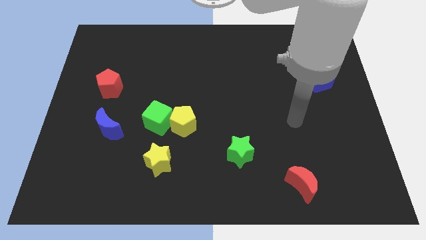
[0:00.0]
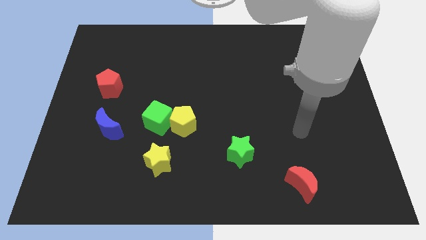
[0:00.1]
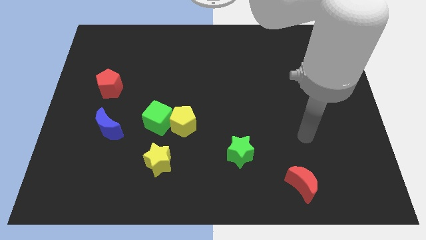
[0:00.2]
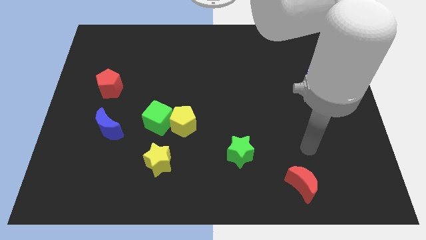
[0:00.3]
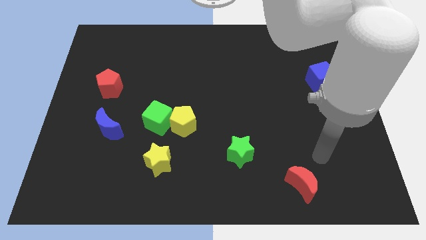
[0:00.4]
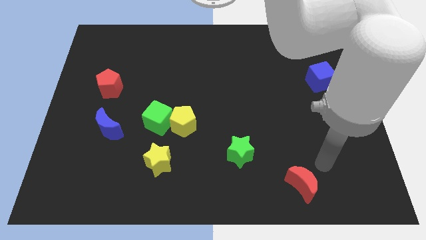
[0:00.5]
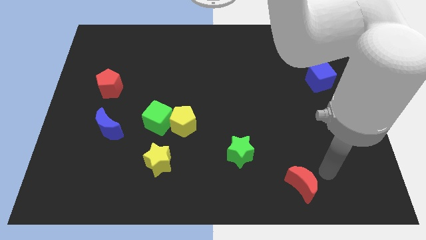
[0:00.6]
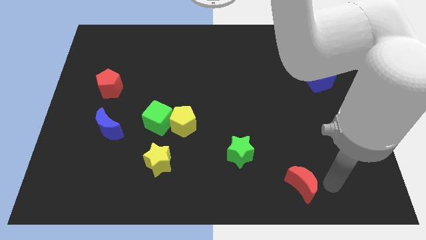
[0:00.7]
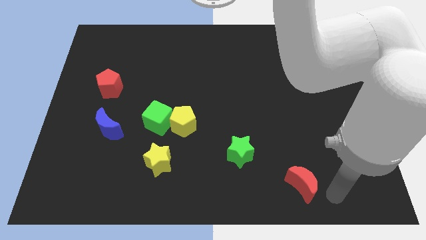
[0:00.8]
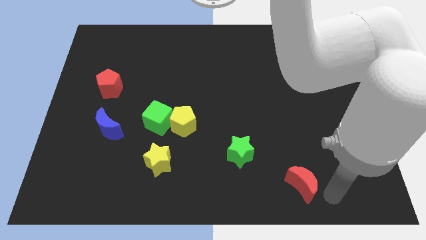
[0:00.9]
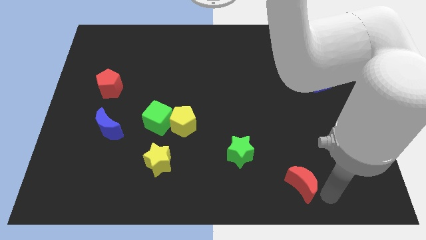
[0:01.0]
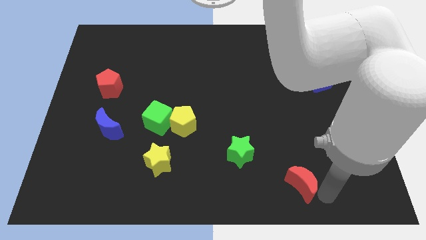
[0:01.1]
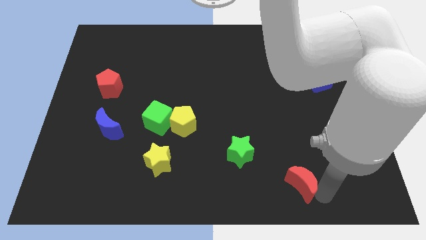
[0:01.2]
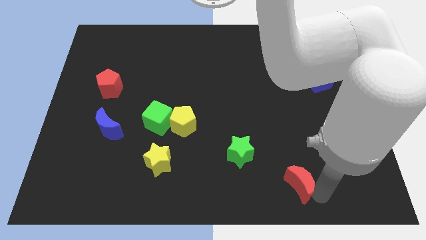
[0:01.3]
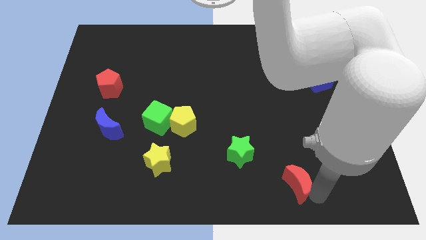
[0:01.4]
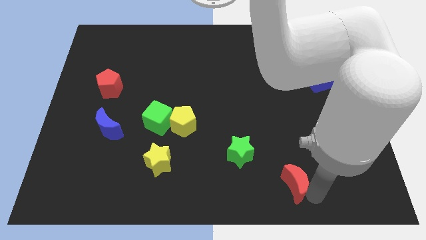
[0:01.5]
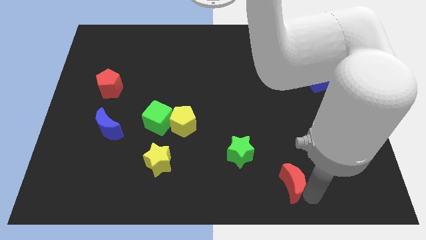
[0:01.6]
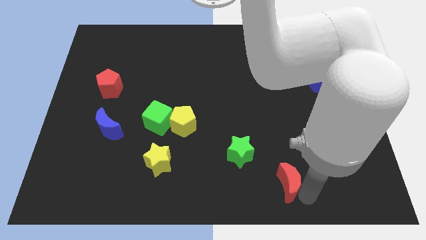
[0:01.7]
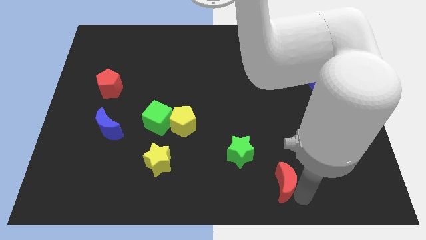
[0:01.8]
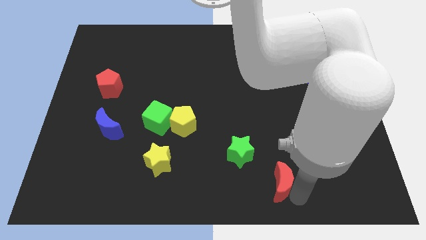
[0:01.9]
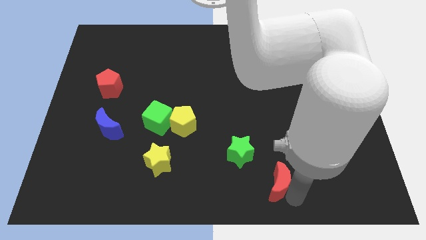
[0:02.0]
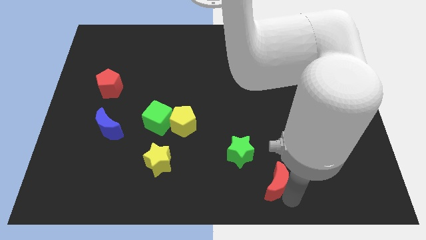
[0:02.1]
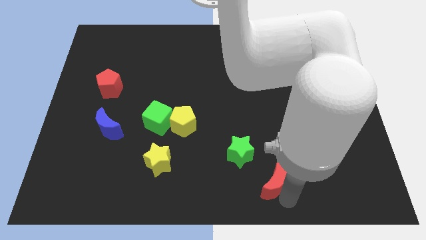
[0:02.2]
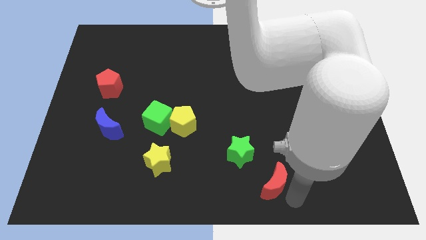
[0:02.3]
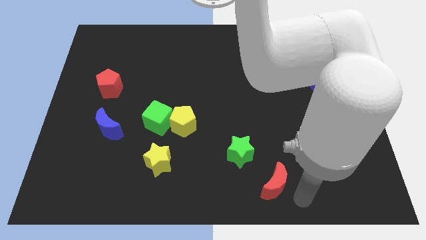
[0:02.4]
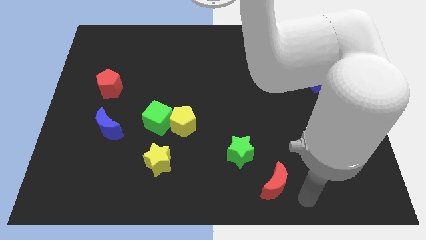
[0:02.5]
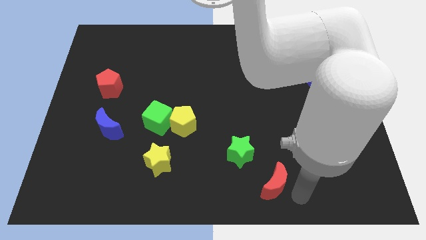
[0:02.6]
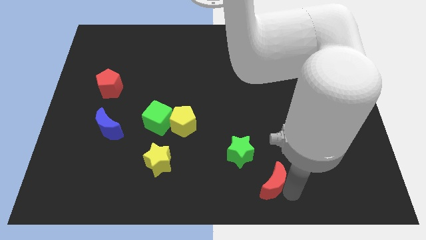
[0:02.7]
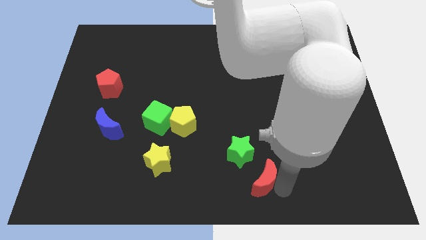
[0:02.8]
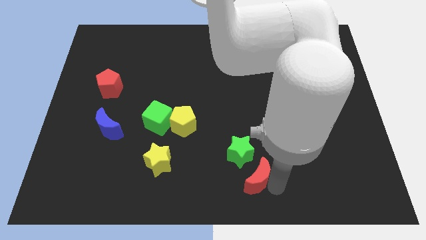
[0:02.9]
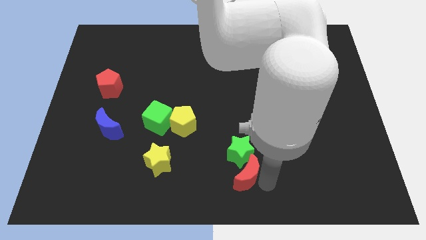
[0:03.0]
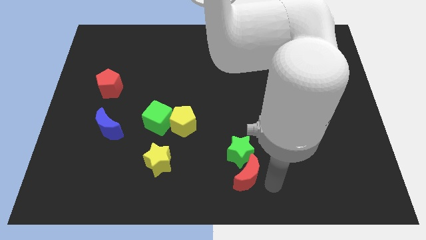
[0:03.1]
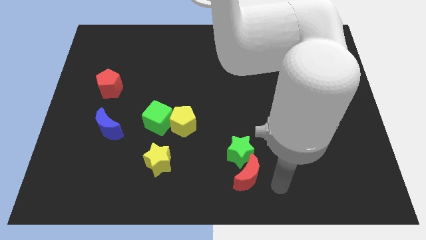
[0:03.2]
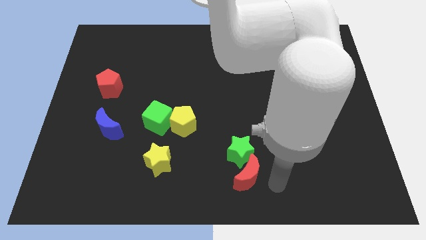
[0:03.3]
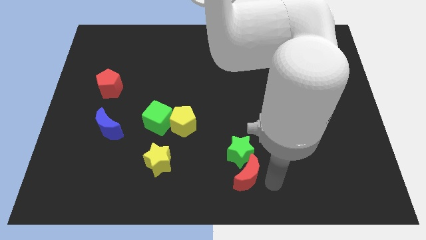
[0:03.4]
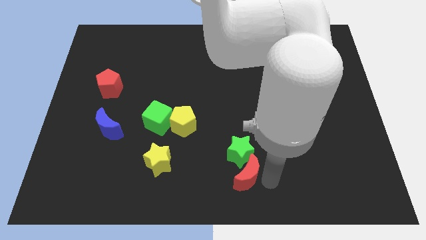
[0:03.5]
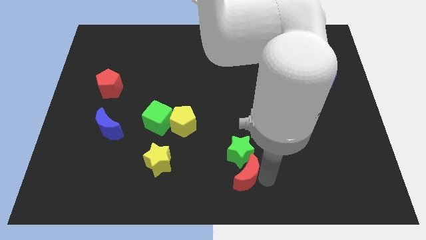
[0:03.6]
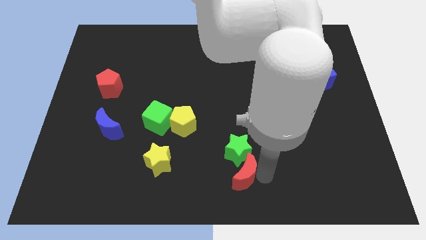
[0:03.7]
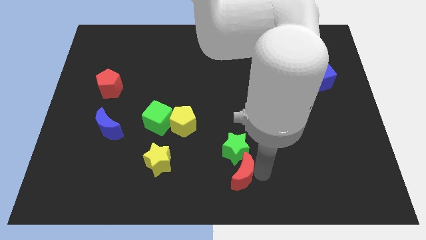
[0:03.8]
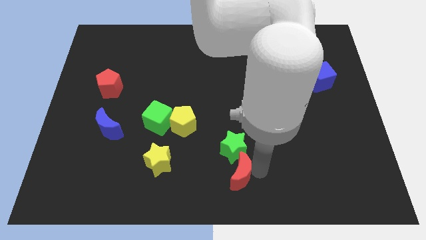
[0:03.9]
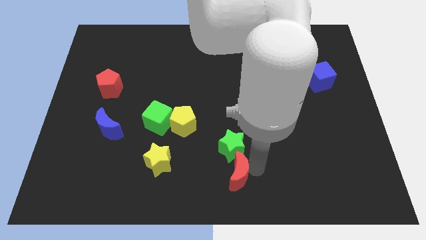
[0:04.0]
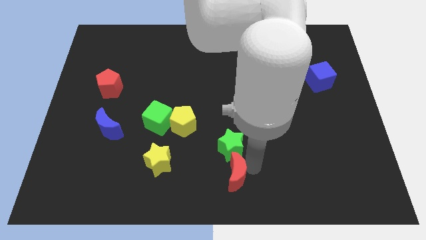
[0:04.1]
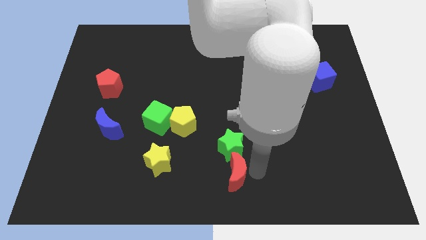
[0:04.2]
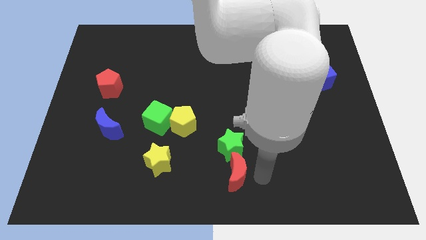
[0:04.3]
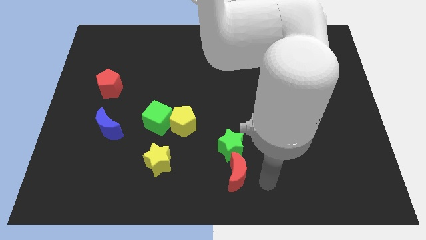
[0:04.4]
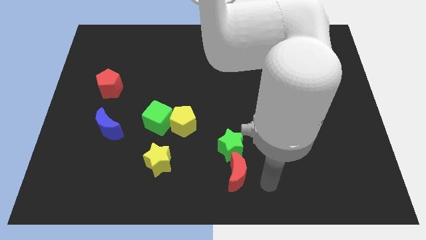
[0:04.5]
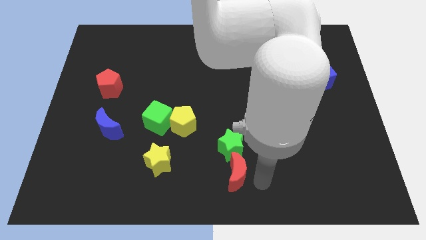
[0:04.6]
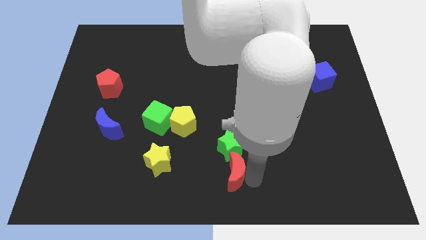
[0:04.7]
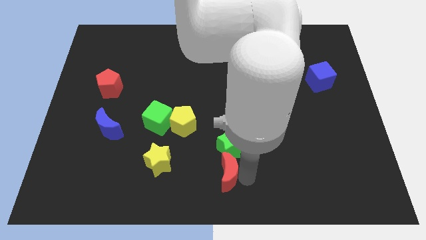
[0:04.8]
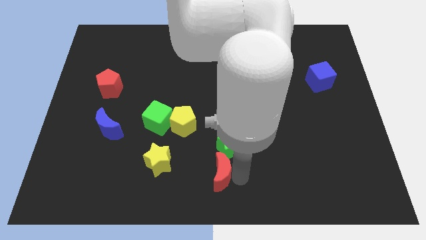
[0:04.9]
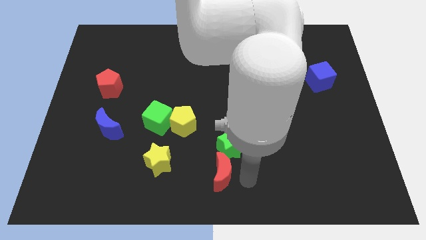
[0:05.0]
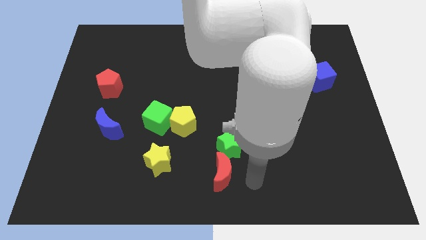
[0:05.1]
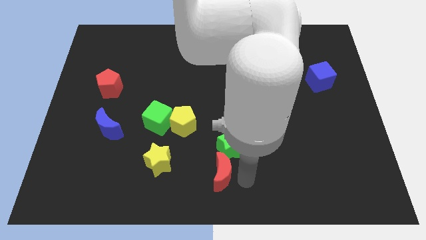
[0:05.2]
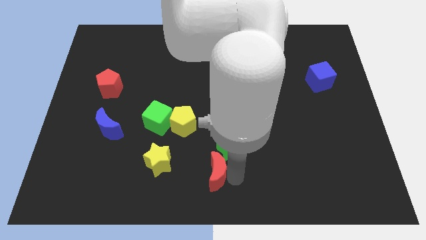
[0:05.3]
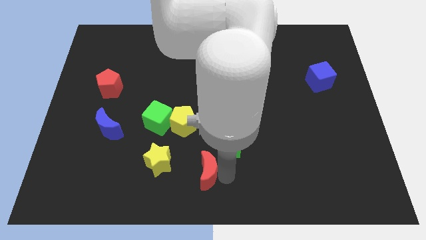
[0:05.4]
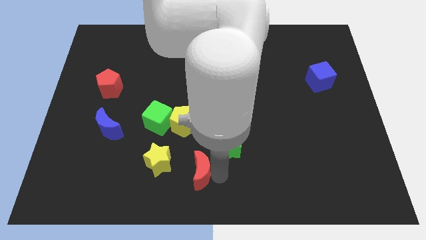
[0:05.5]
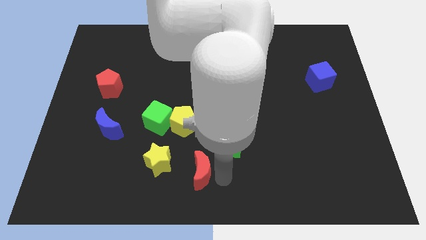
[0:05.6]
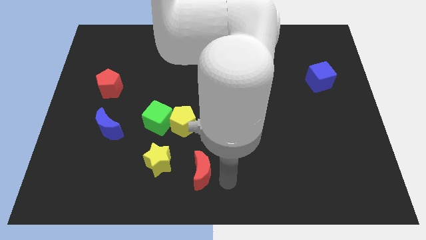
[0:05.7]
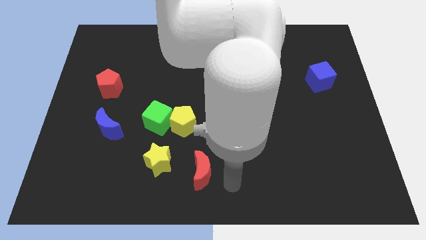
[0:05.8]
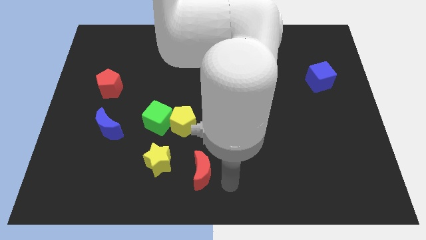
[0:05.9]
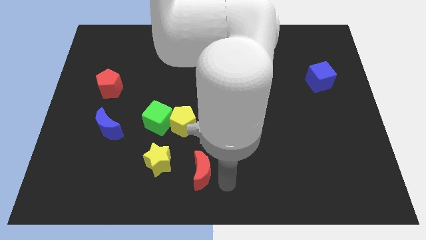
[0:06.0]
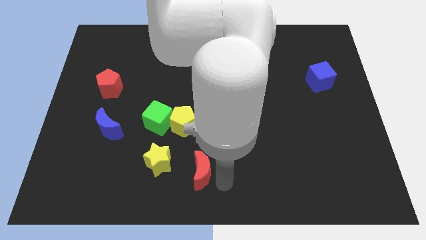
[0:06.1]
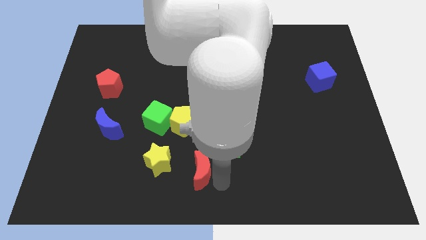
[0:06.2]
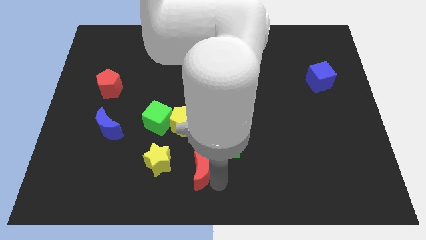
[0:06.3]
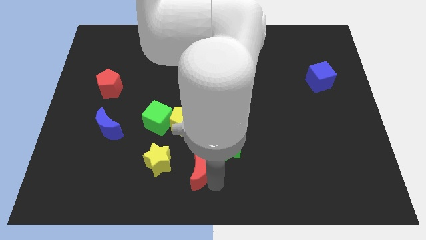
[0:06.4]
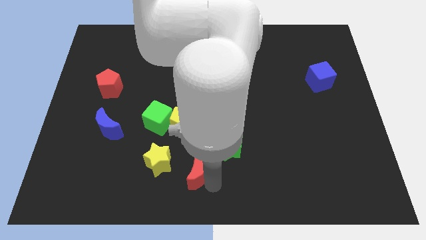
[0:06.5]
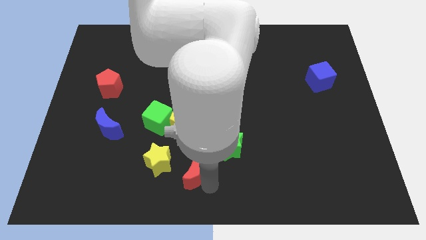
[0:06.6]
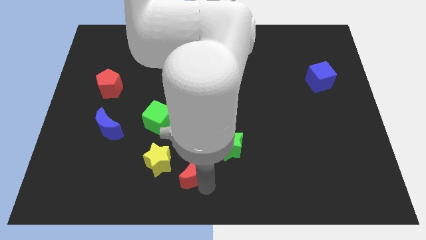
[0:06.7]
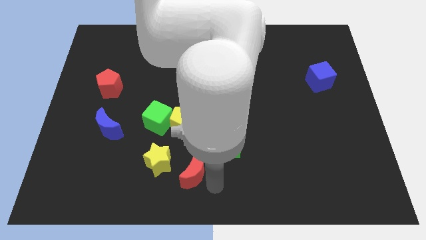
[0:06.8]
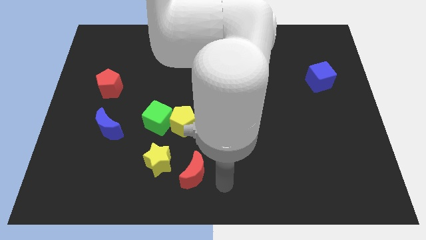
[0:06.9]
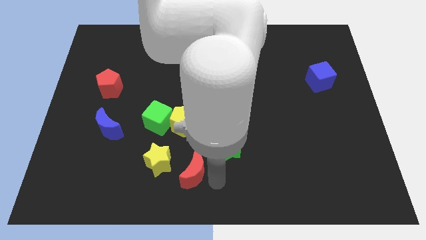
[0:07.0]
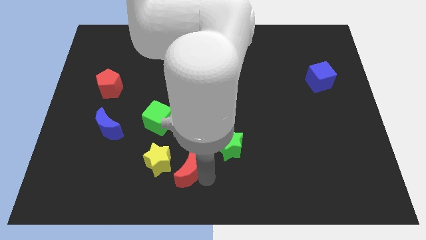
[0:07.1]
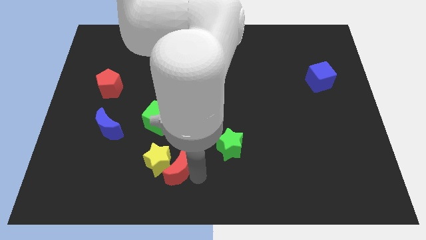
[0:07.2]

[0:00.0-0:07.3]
slide the red moon next to the yellow star
